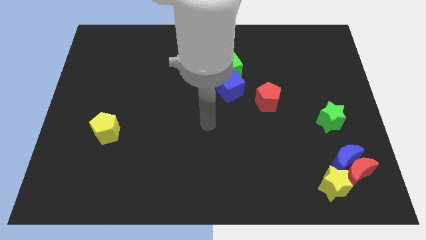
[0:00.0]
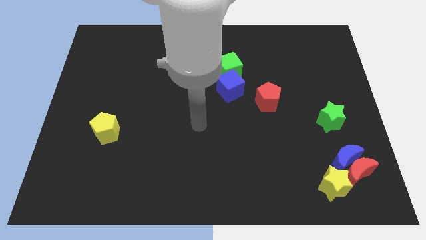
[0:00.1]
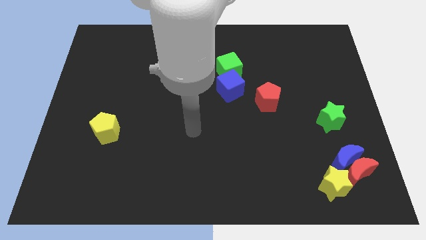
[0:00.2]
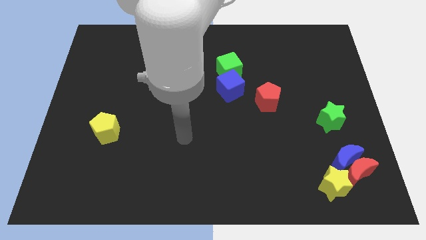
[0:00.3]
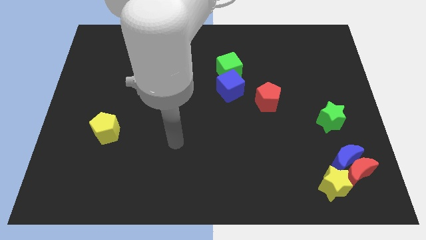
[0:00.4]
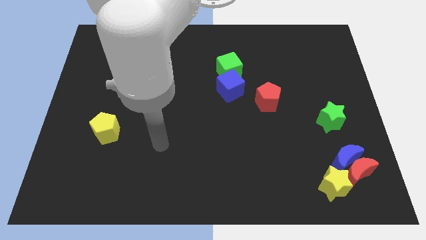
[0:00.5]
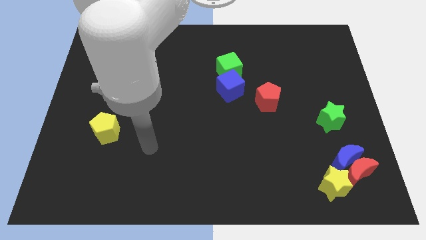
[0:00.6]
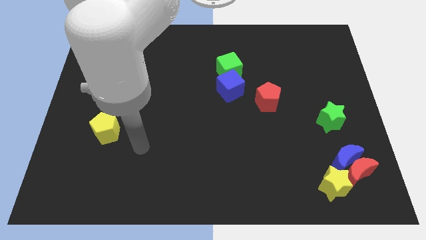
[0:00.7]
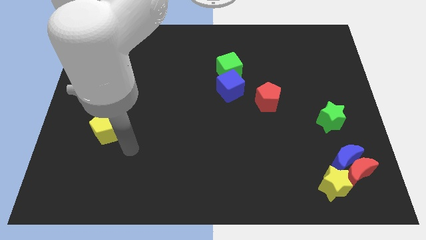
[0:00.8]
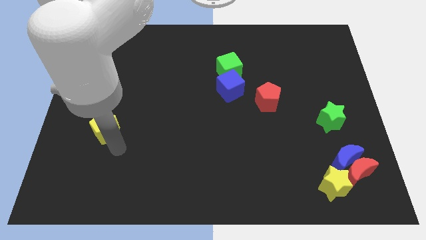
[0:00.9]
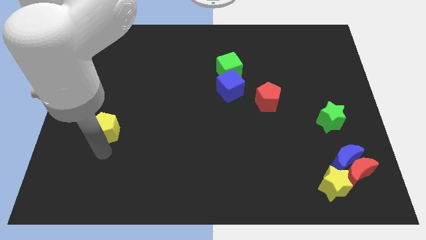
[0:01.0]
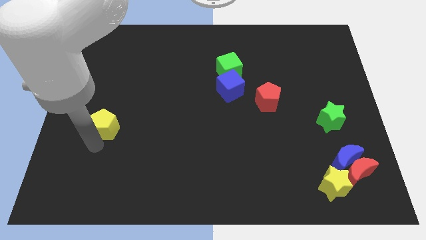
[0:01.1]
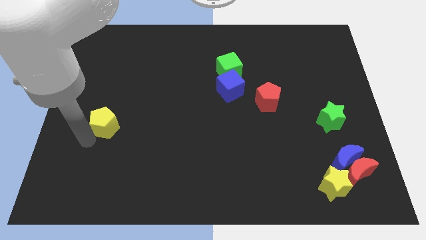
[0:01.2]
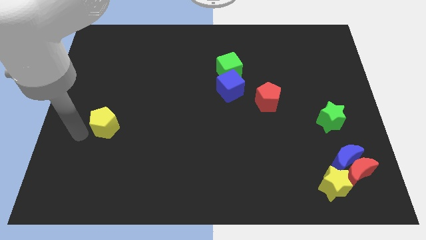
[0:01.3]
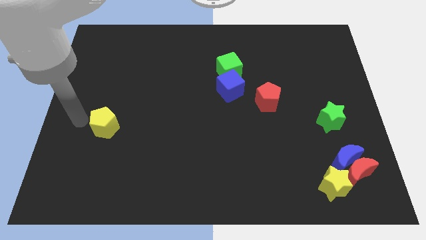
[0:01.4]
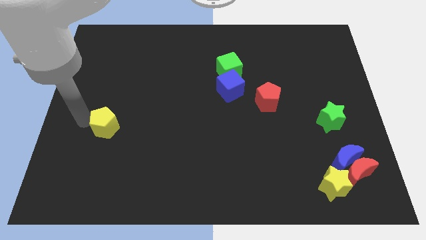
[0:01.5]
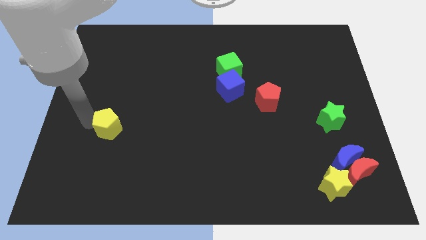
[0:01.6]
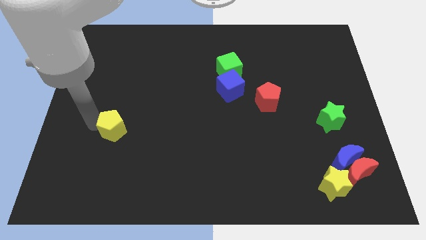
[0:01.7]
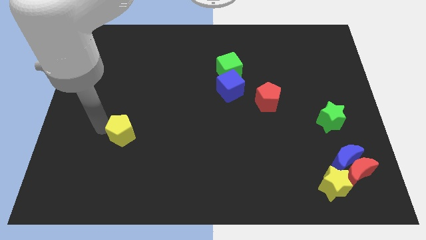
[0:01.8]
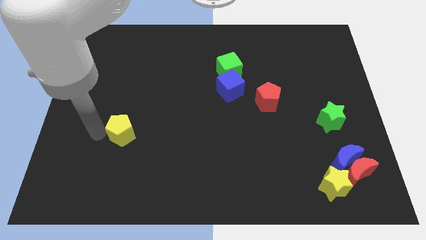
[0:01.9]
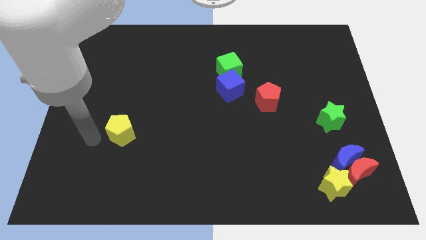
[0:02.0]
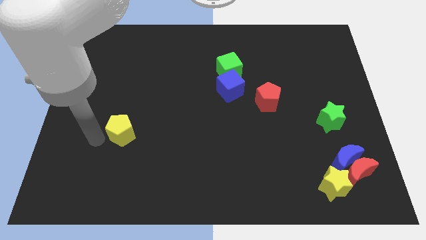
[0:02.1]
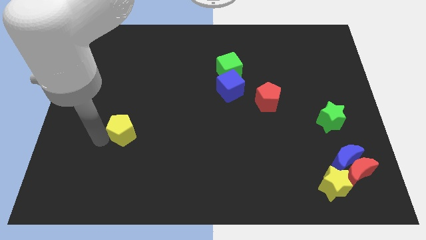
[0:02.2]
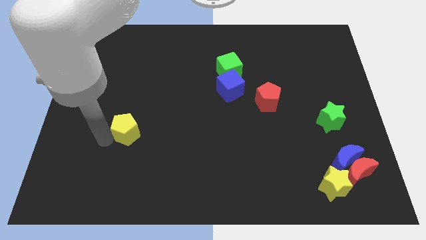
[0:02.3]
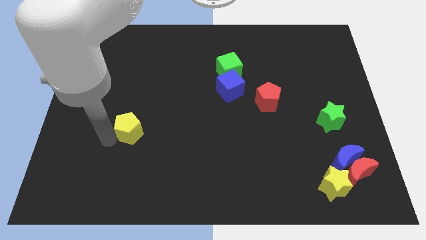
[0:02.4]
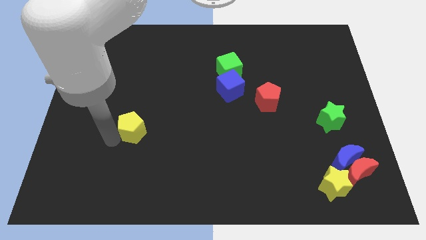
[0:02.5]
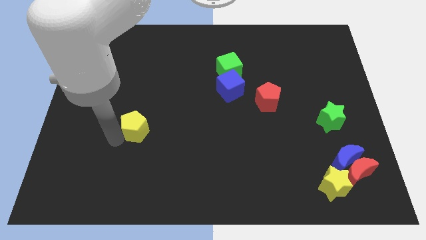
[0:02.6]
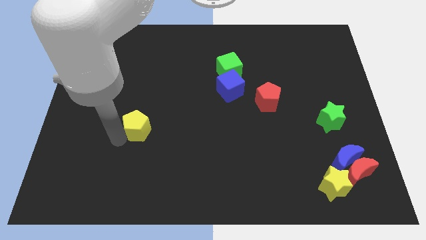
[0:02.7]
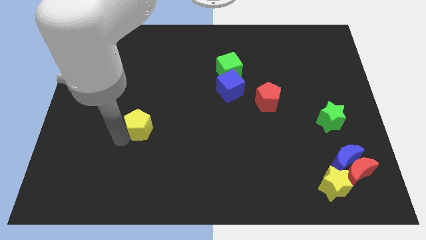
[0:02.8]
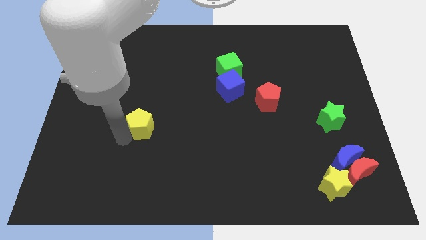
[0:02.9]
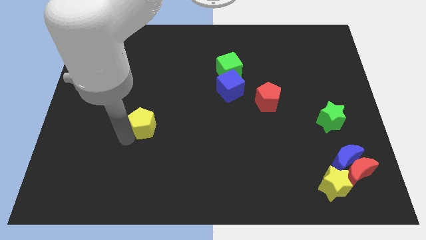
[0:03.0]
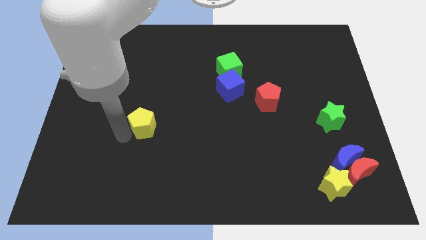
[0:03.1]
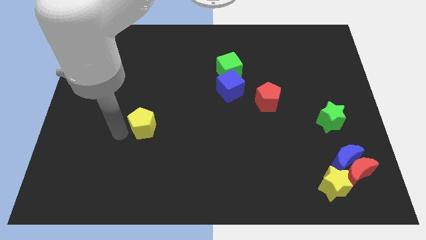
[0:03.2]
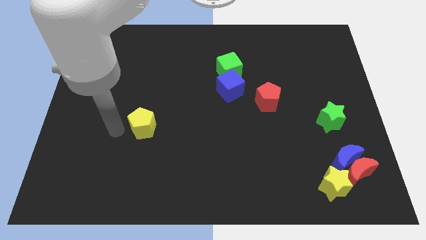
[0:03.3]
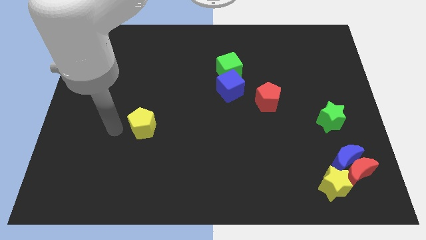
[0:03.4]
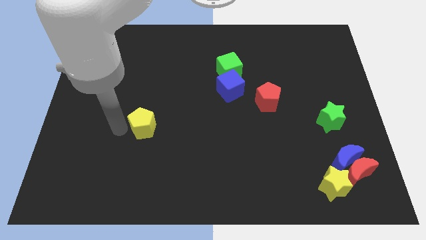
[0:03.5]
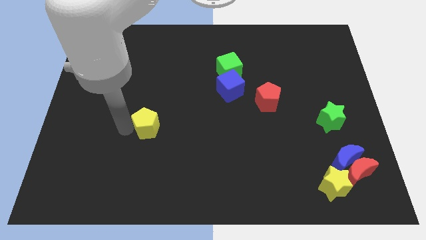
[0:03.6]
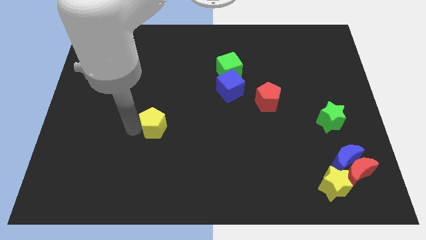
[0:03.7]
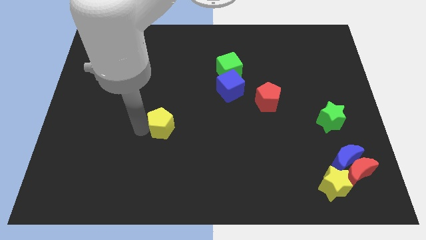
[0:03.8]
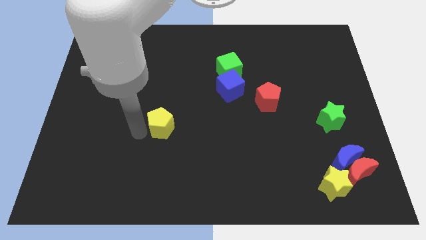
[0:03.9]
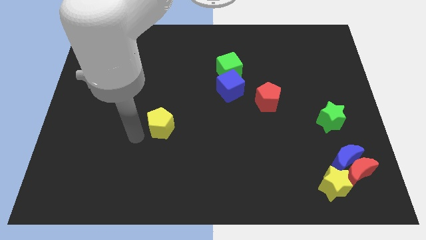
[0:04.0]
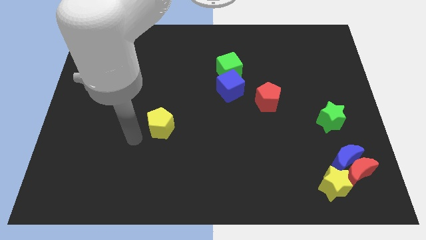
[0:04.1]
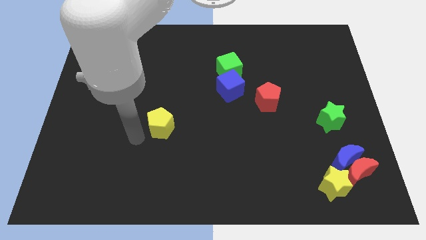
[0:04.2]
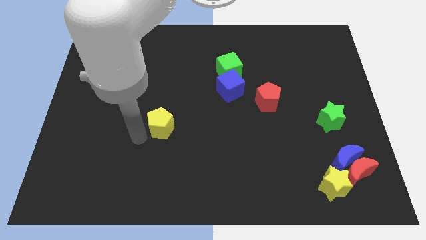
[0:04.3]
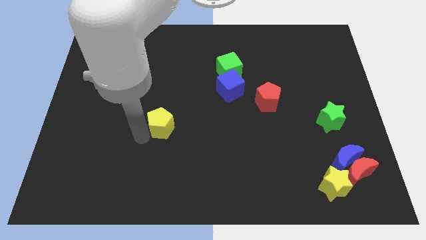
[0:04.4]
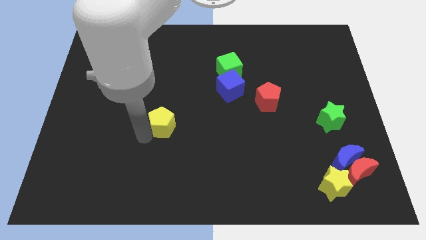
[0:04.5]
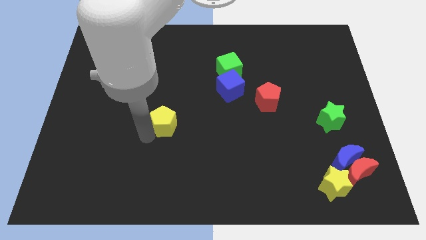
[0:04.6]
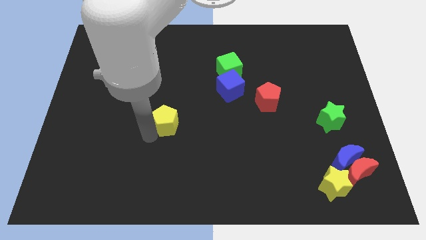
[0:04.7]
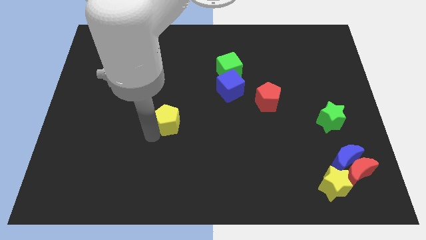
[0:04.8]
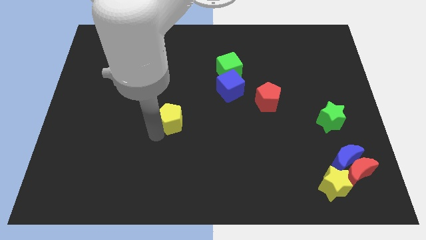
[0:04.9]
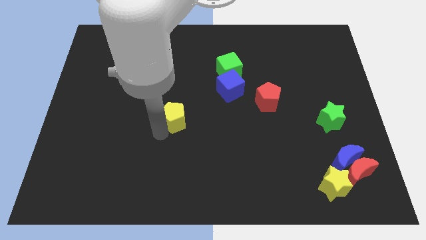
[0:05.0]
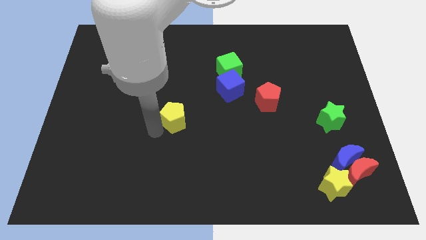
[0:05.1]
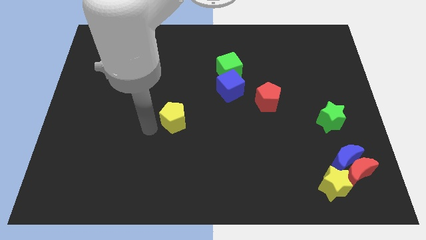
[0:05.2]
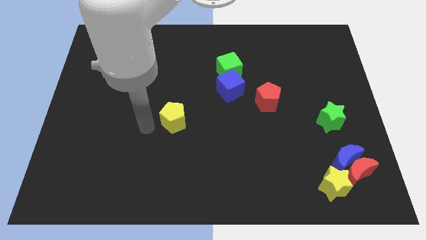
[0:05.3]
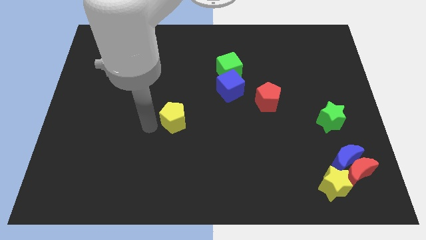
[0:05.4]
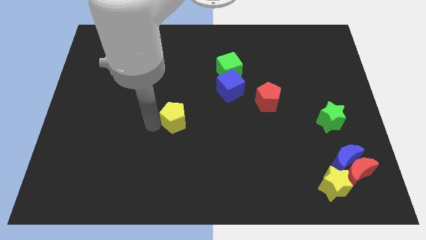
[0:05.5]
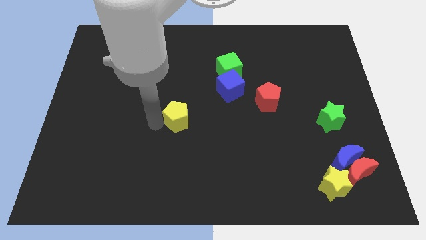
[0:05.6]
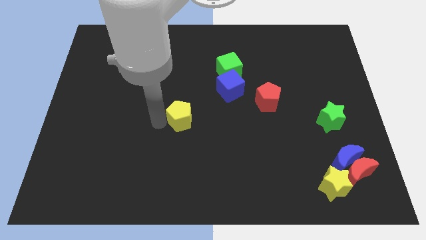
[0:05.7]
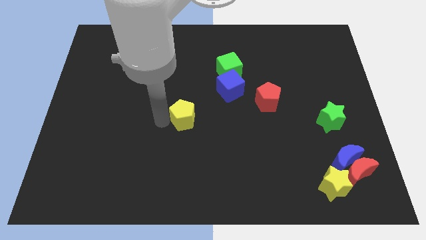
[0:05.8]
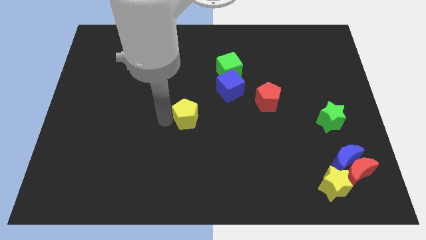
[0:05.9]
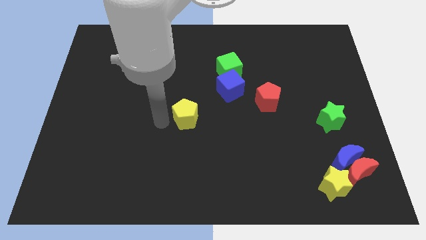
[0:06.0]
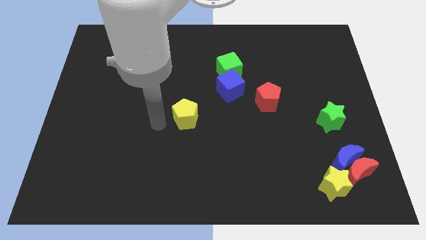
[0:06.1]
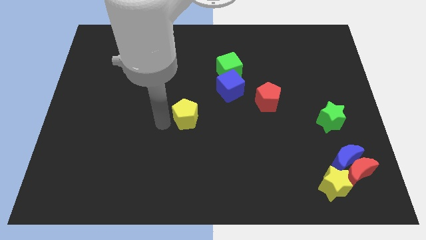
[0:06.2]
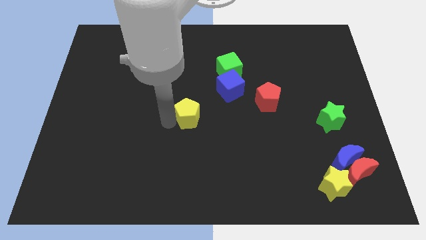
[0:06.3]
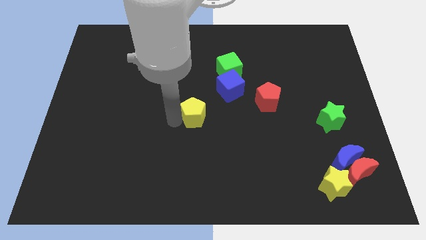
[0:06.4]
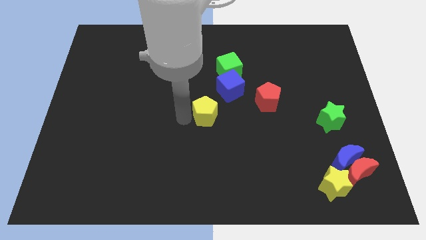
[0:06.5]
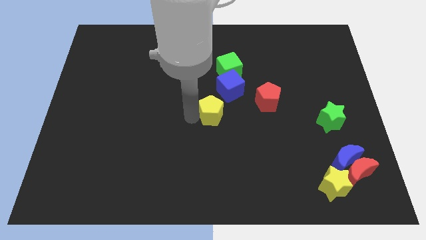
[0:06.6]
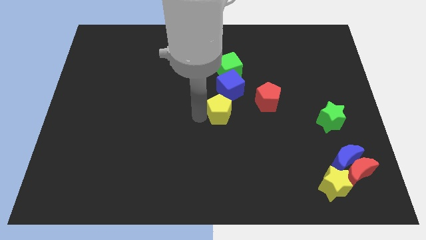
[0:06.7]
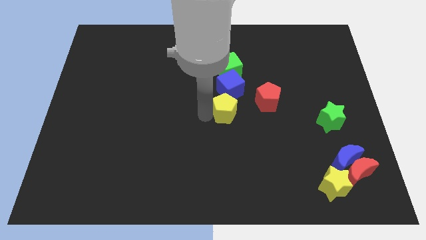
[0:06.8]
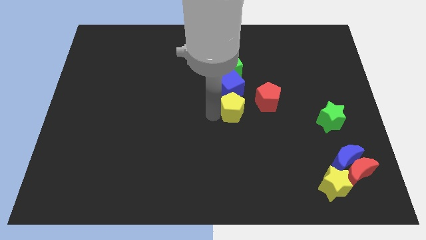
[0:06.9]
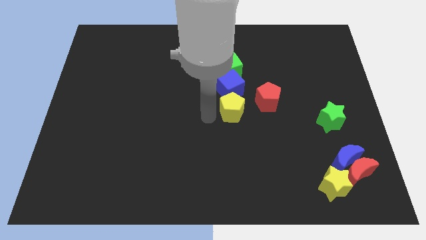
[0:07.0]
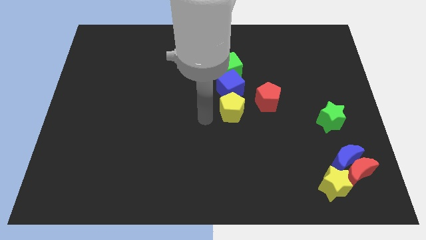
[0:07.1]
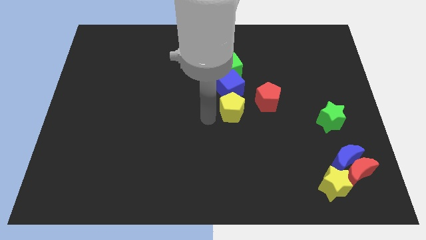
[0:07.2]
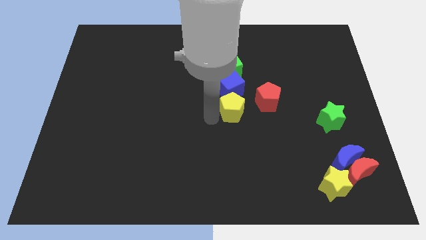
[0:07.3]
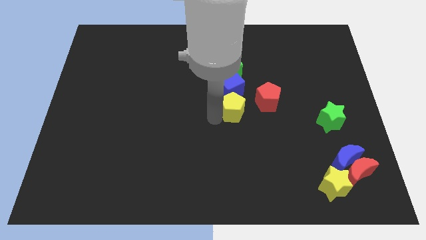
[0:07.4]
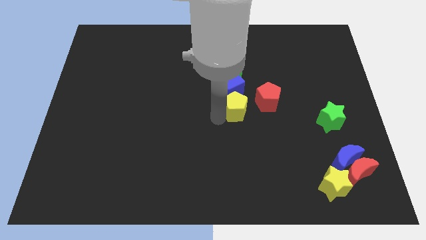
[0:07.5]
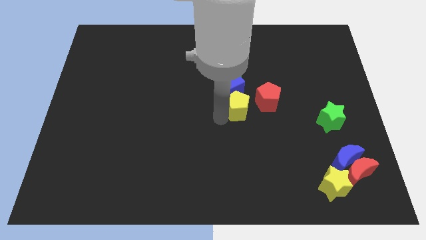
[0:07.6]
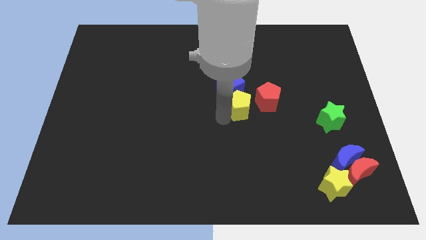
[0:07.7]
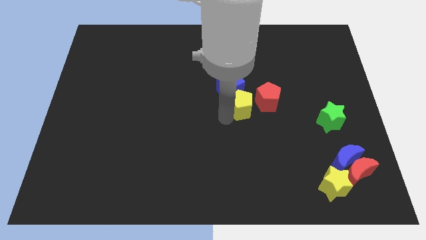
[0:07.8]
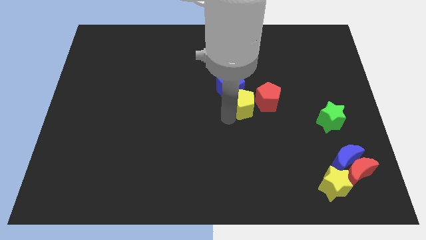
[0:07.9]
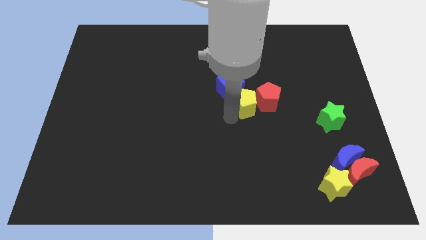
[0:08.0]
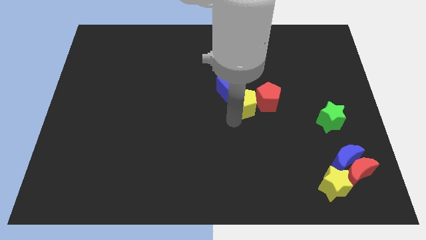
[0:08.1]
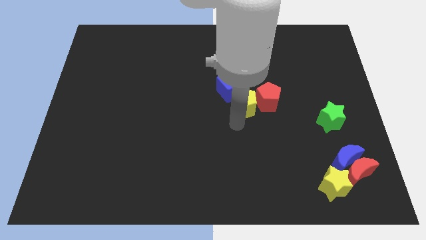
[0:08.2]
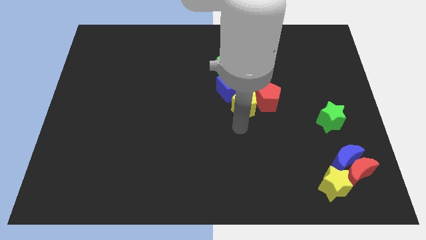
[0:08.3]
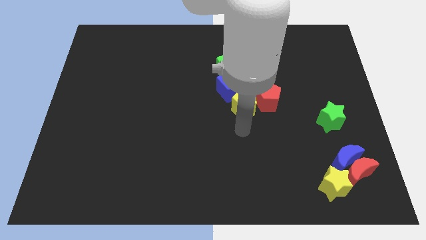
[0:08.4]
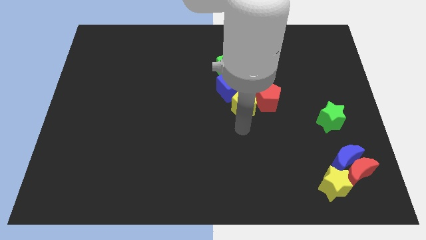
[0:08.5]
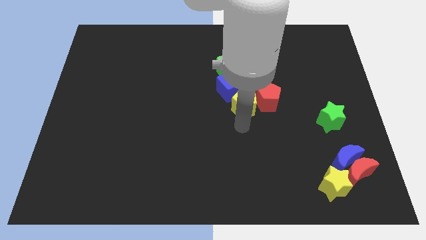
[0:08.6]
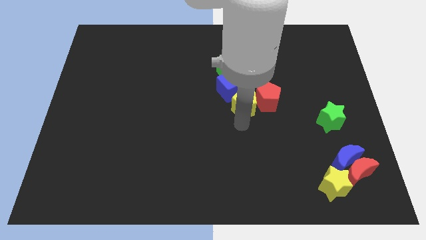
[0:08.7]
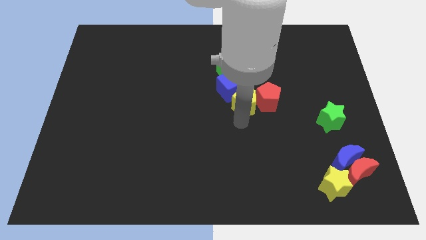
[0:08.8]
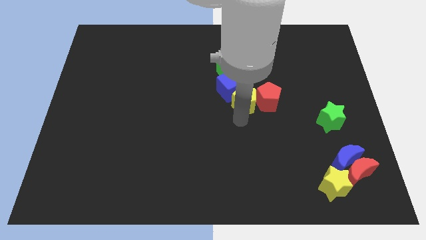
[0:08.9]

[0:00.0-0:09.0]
put the yellow pentagon to the right side of the blue cube
